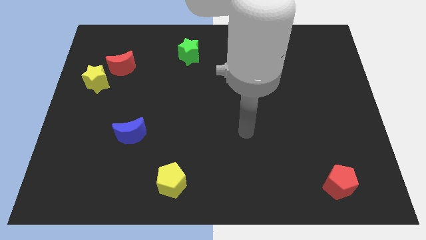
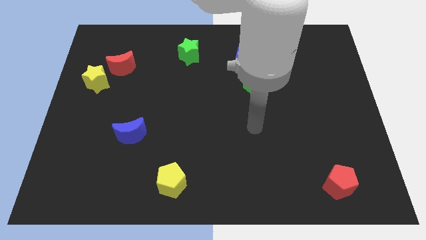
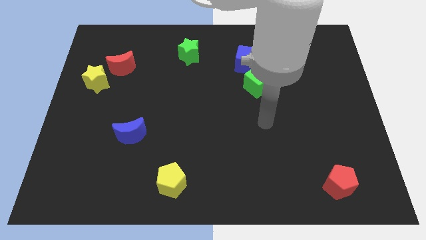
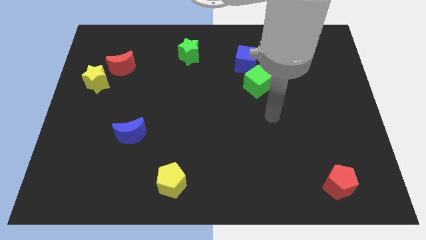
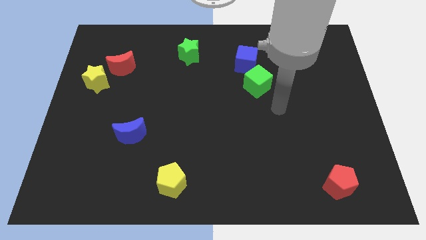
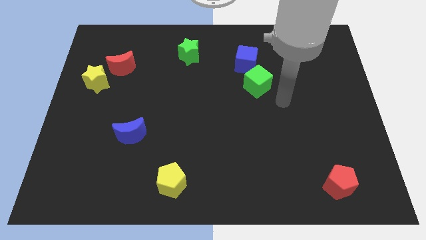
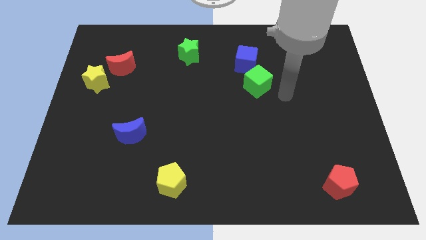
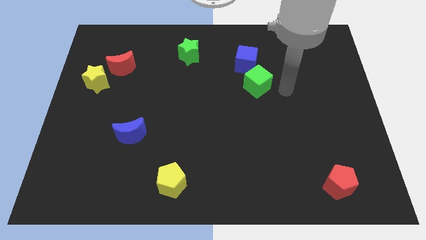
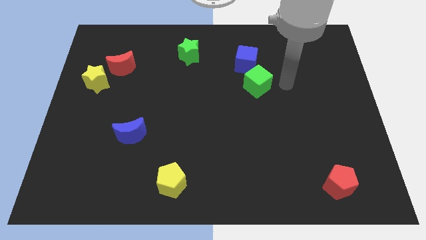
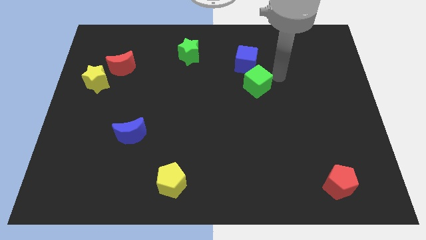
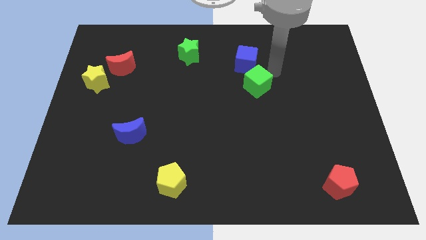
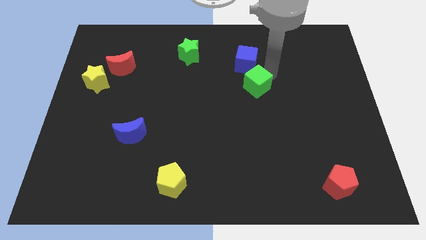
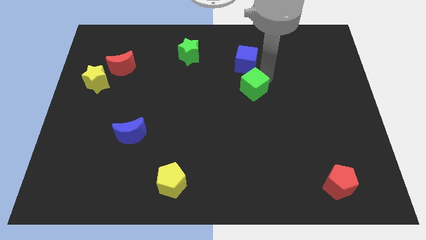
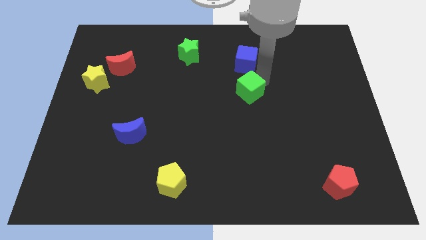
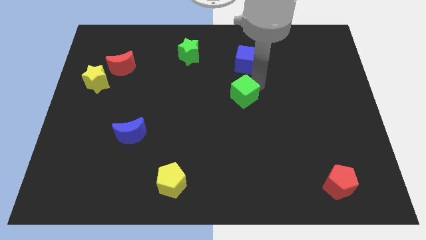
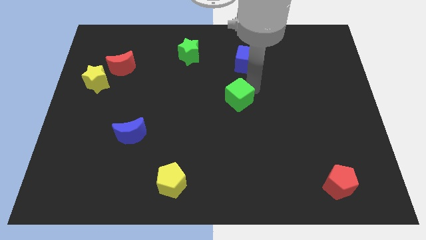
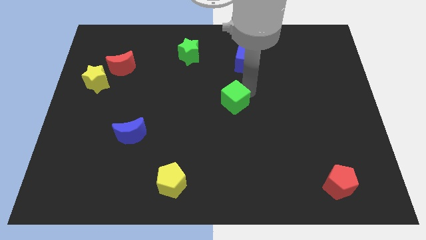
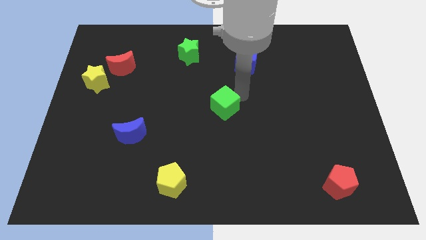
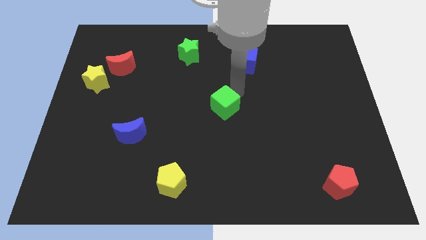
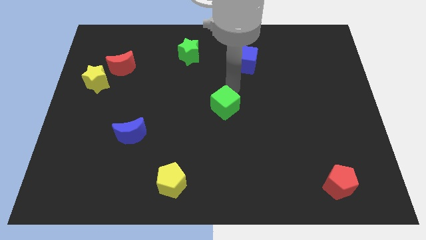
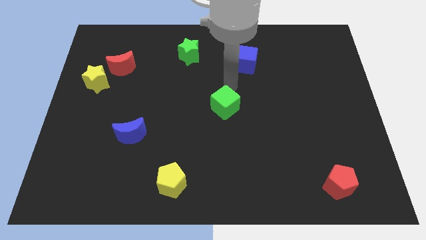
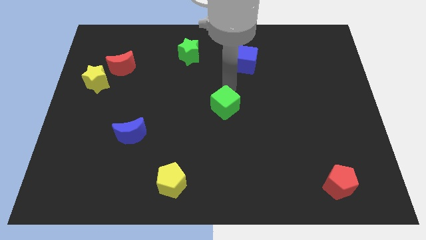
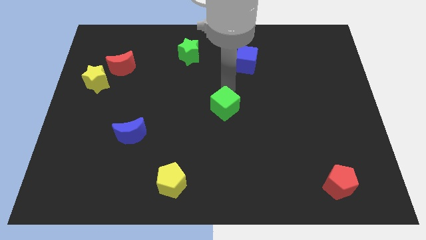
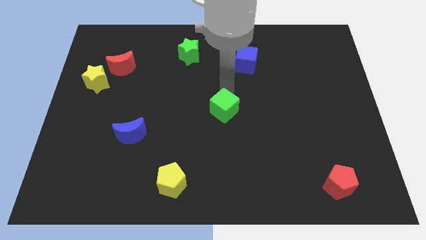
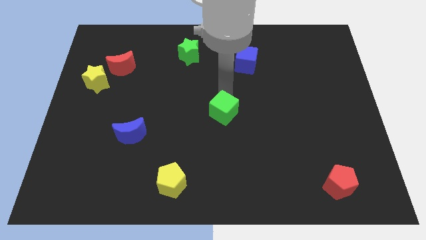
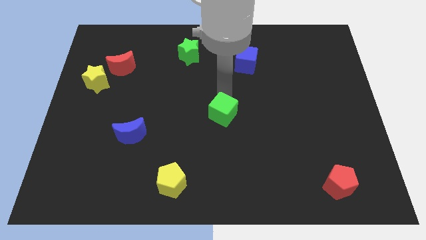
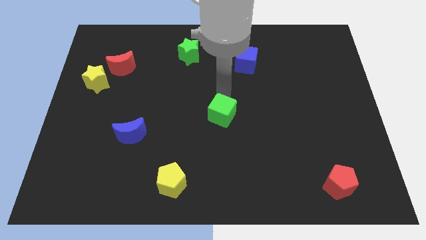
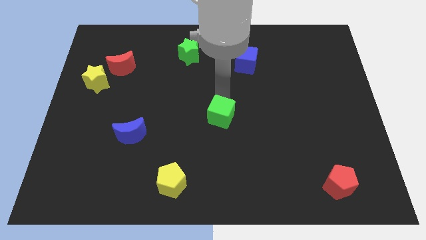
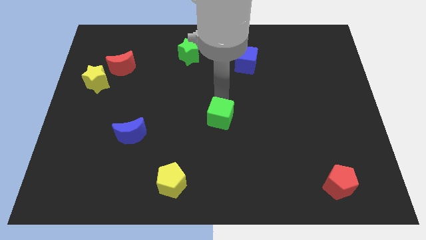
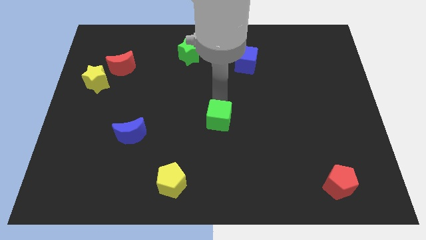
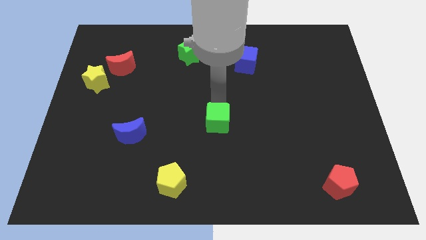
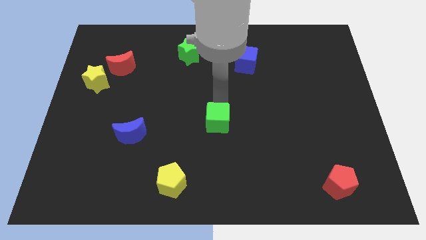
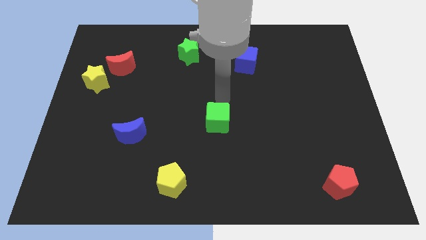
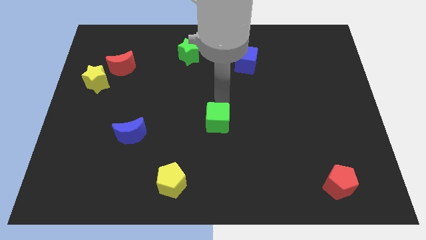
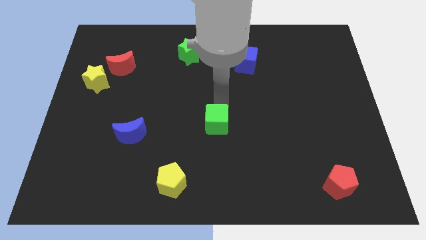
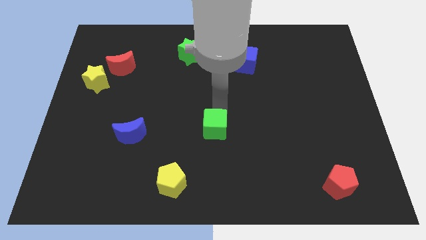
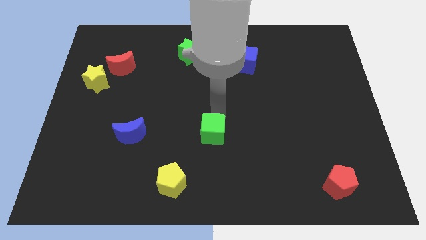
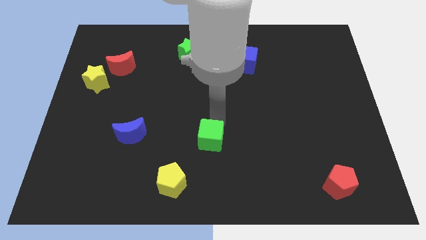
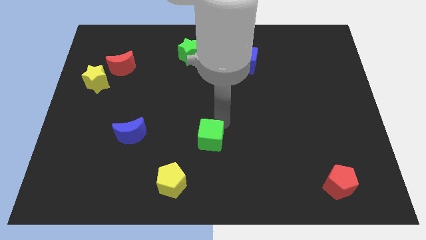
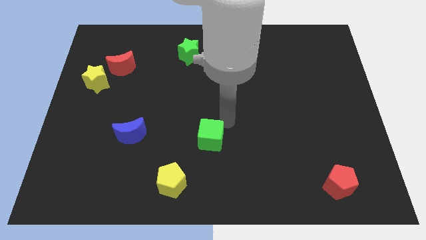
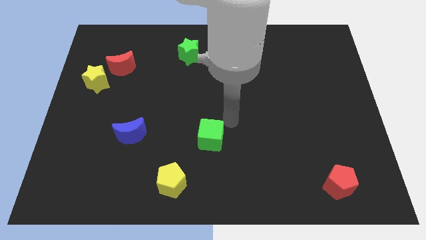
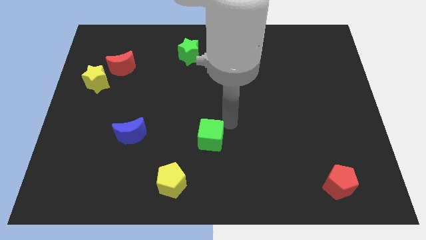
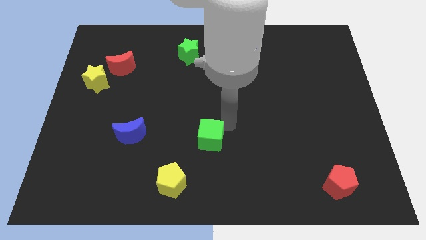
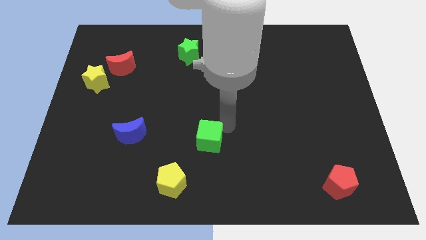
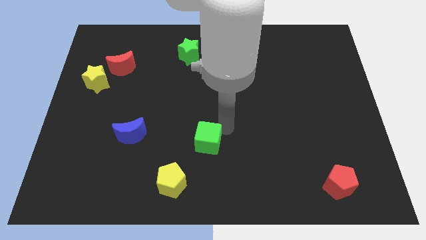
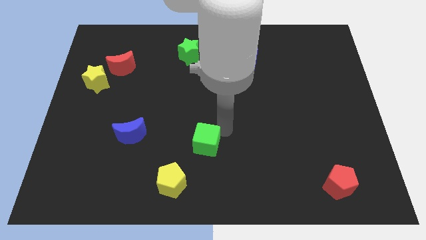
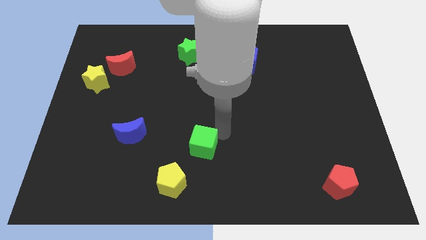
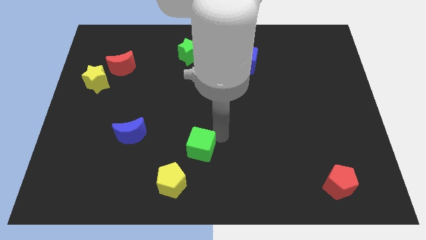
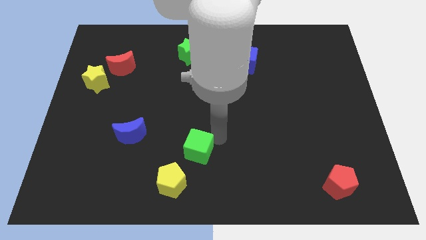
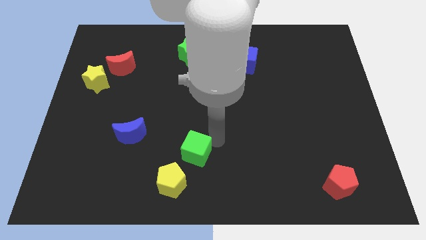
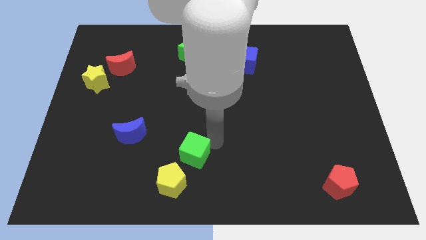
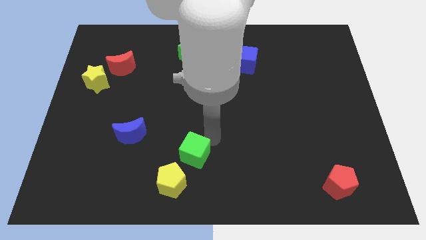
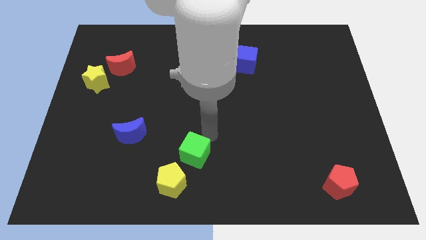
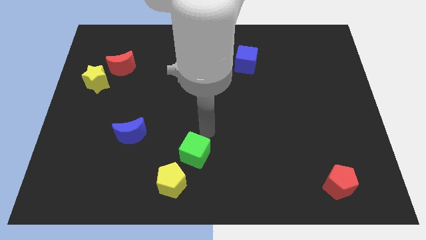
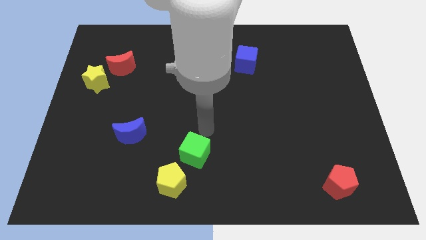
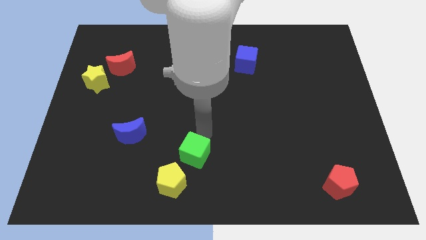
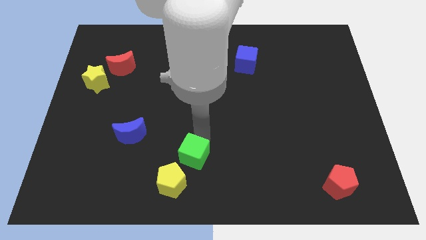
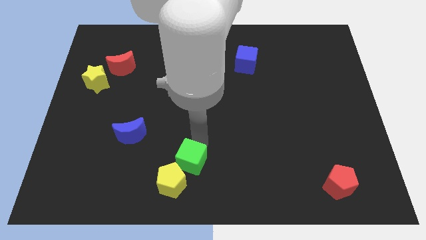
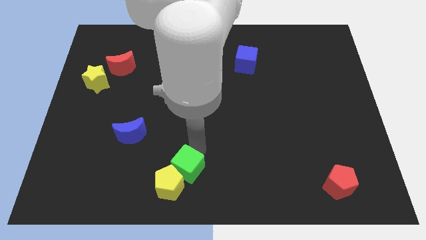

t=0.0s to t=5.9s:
move the green cube next to the yellow pentagon
